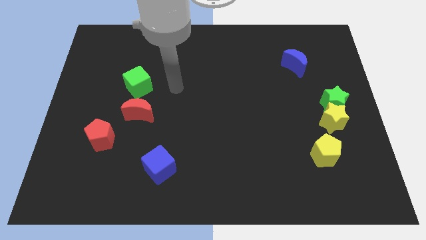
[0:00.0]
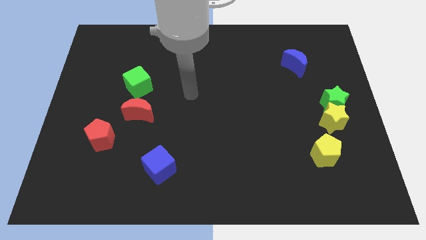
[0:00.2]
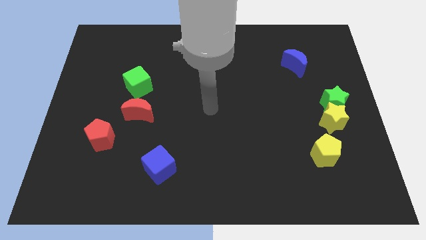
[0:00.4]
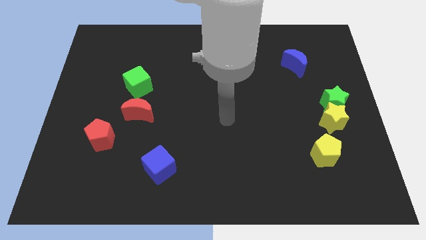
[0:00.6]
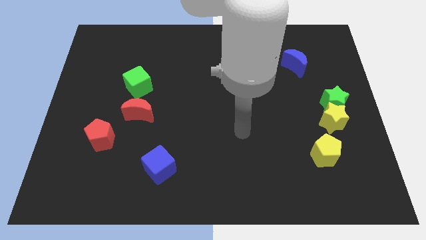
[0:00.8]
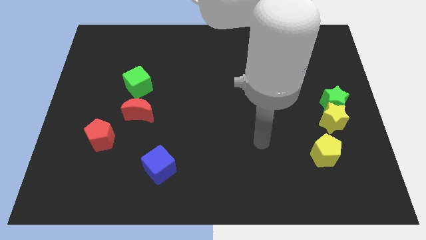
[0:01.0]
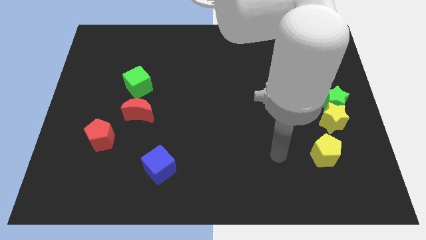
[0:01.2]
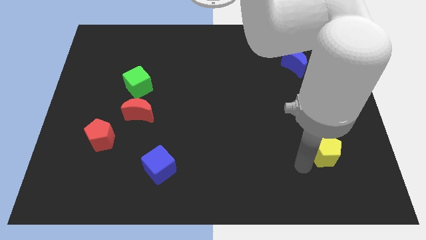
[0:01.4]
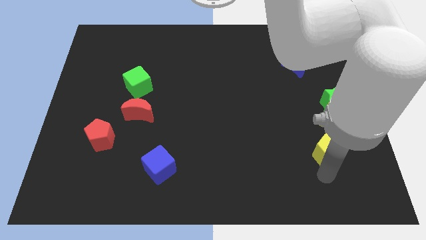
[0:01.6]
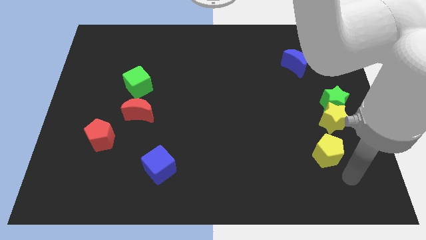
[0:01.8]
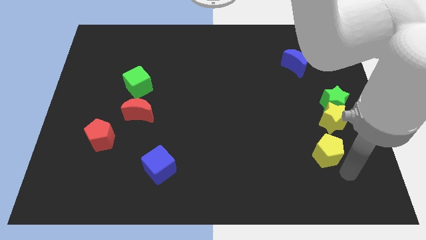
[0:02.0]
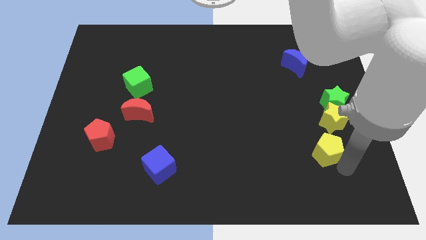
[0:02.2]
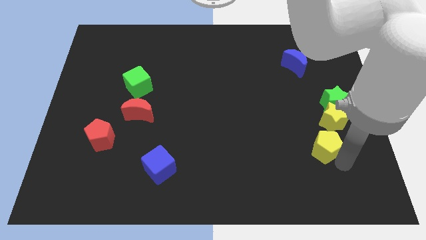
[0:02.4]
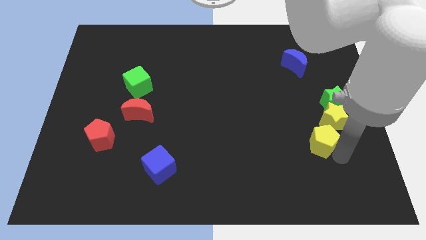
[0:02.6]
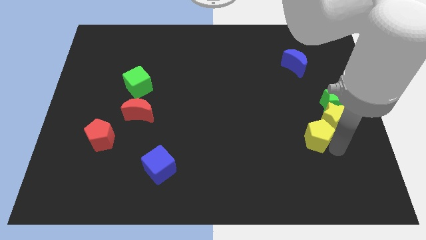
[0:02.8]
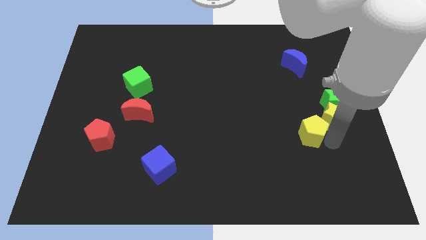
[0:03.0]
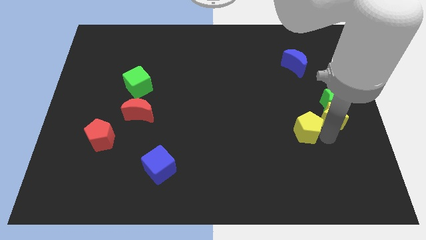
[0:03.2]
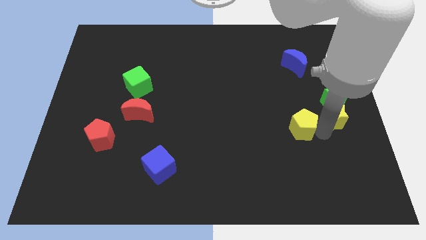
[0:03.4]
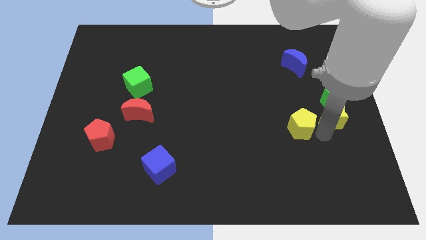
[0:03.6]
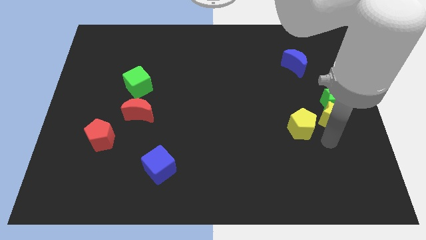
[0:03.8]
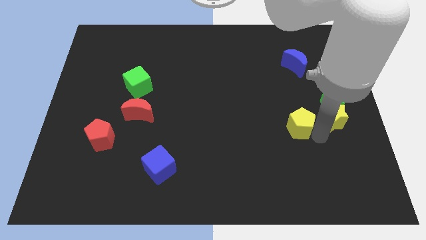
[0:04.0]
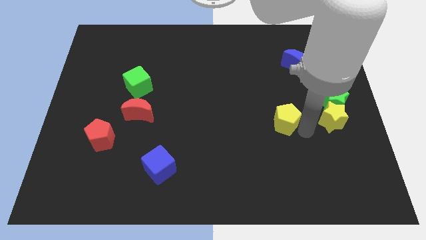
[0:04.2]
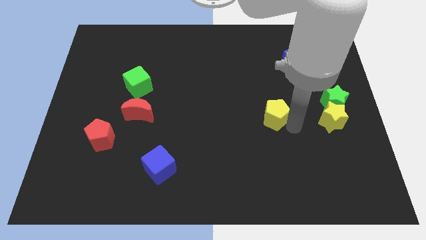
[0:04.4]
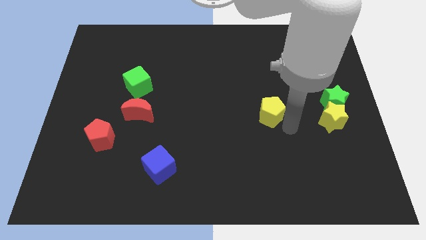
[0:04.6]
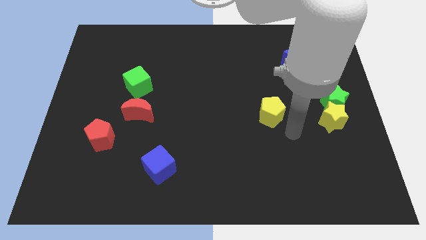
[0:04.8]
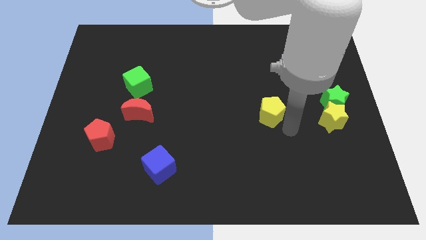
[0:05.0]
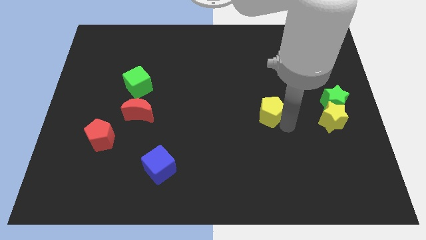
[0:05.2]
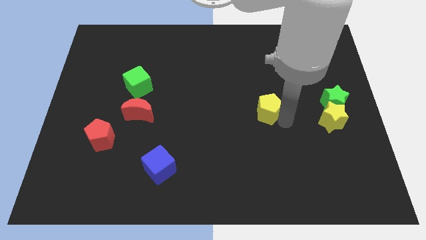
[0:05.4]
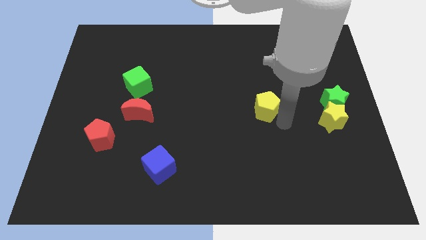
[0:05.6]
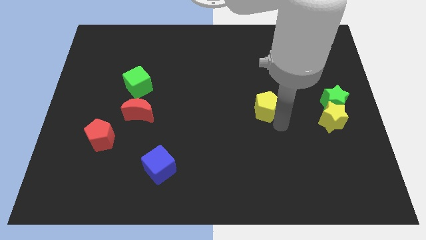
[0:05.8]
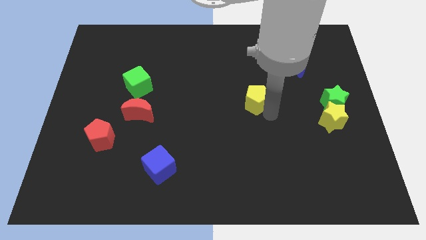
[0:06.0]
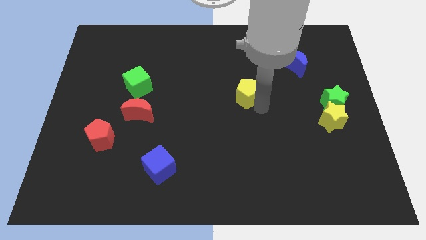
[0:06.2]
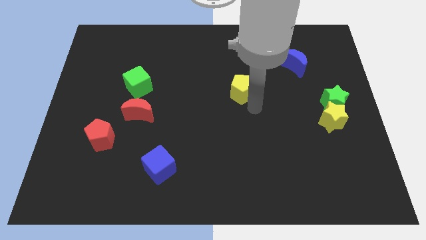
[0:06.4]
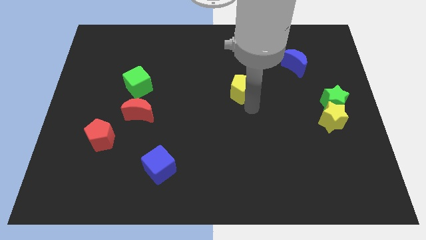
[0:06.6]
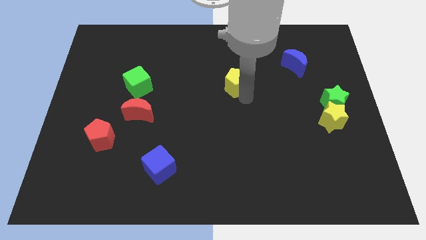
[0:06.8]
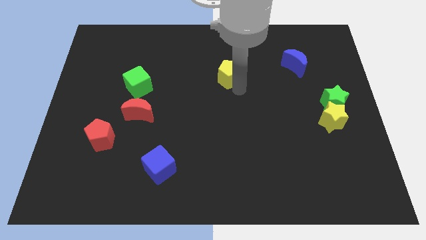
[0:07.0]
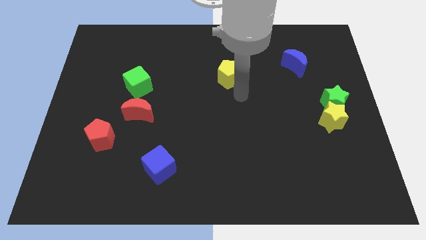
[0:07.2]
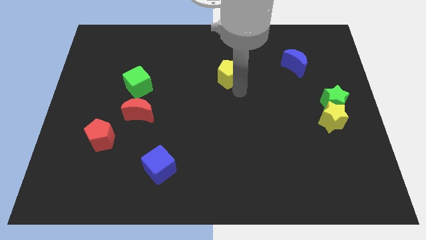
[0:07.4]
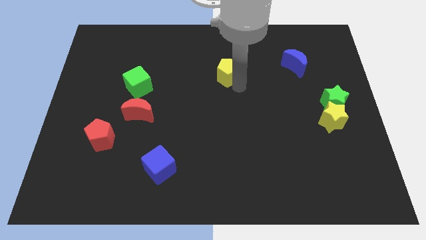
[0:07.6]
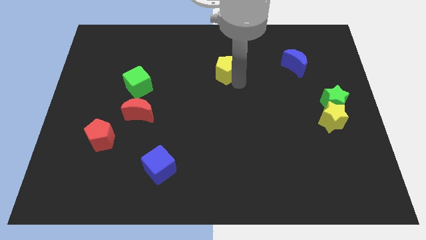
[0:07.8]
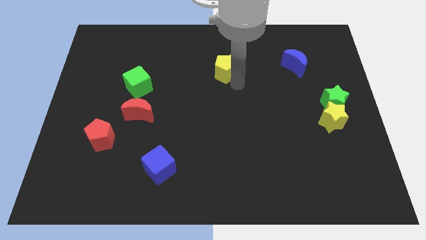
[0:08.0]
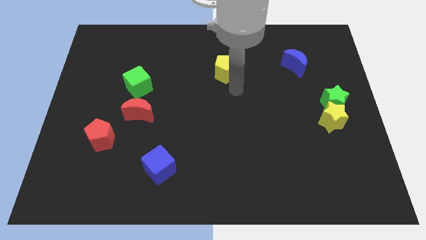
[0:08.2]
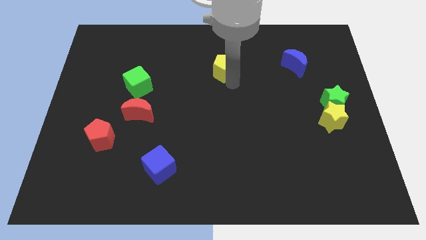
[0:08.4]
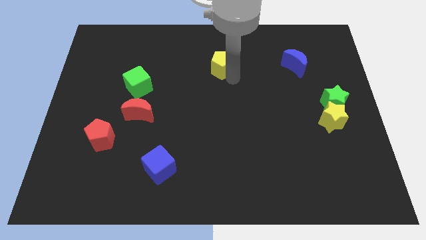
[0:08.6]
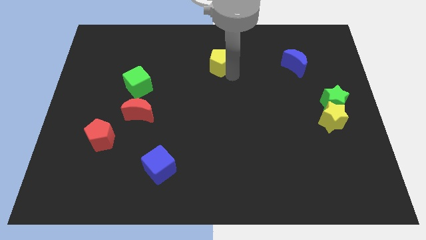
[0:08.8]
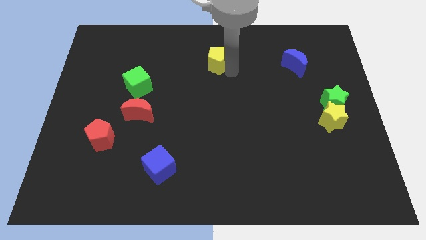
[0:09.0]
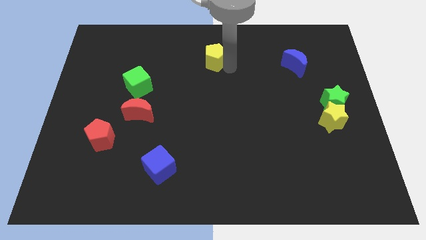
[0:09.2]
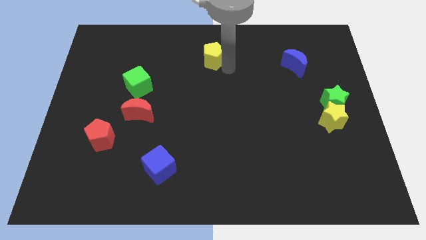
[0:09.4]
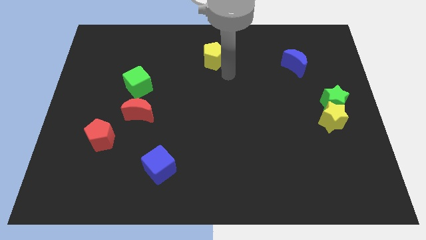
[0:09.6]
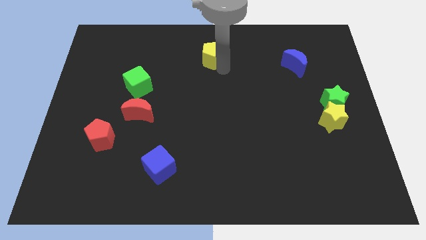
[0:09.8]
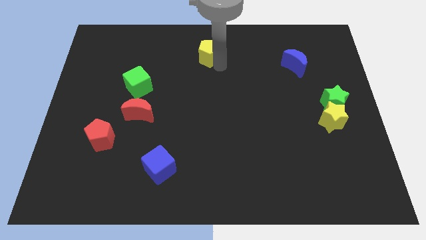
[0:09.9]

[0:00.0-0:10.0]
push the yellow pentagon to the top side

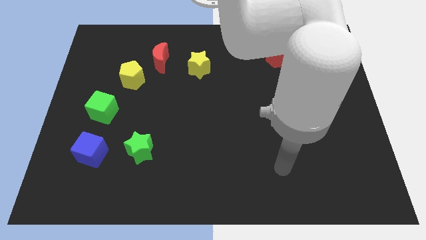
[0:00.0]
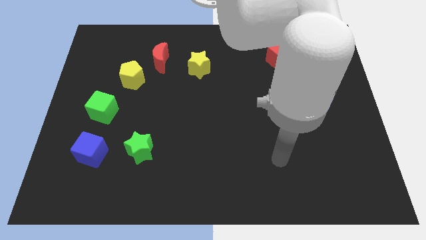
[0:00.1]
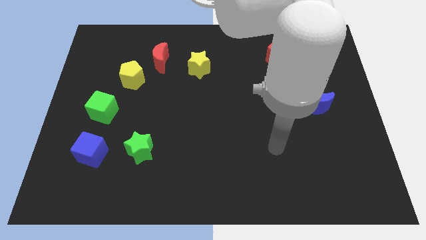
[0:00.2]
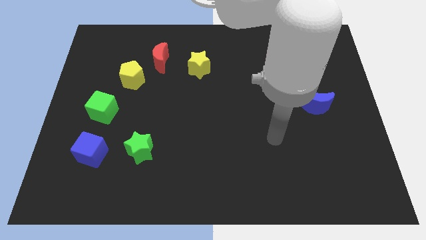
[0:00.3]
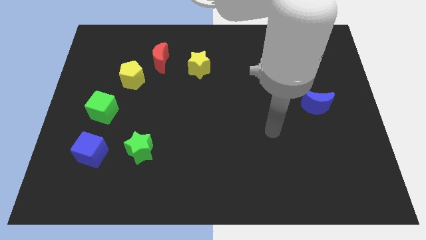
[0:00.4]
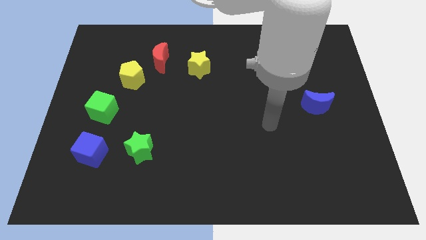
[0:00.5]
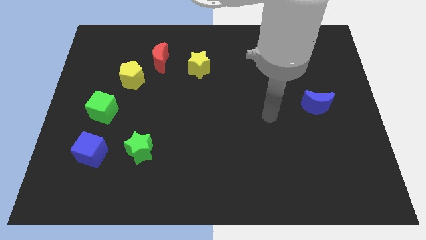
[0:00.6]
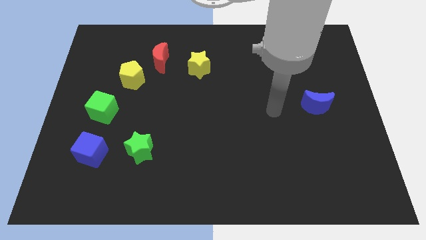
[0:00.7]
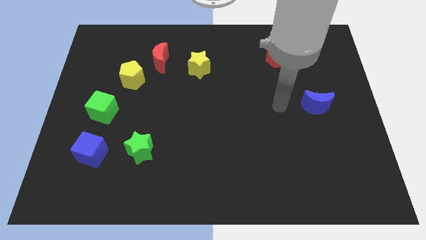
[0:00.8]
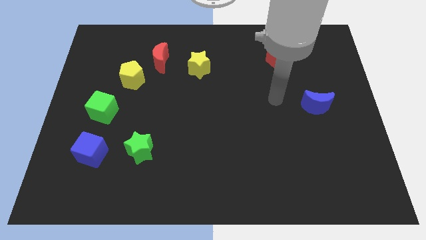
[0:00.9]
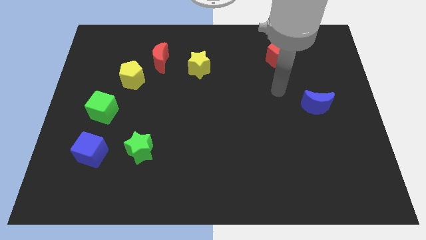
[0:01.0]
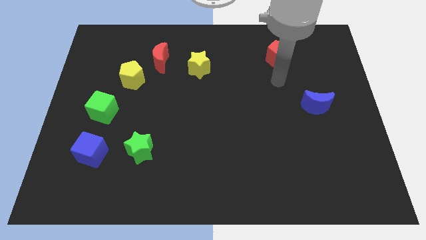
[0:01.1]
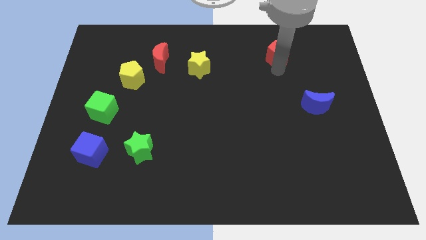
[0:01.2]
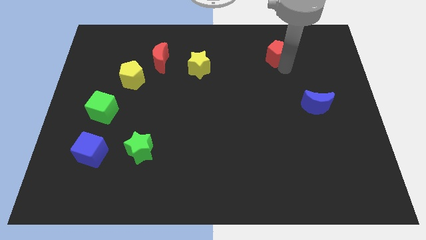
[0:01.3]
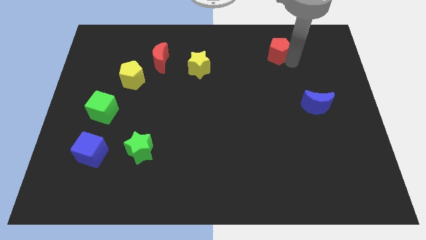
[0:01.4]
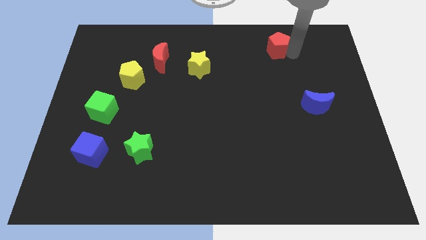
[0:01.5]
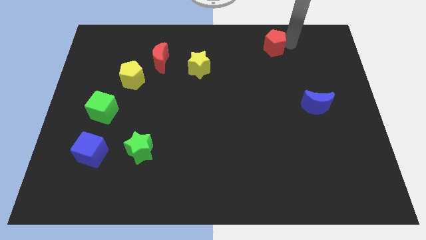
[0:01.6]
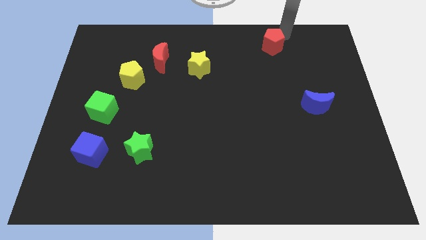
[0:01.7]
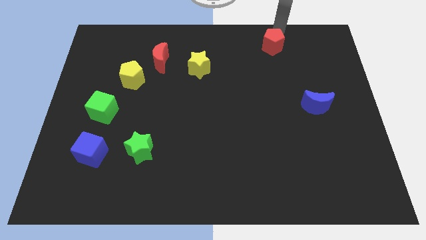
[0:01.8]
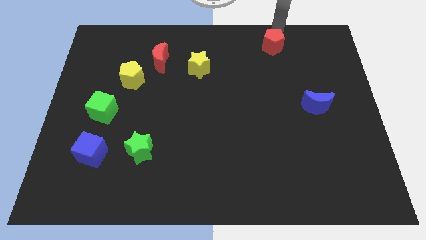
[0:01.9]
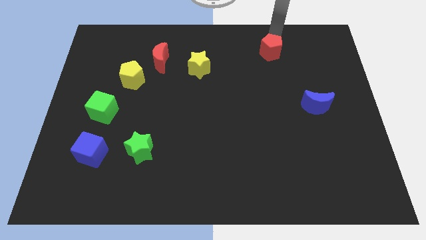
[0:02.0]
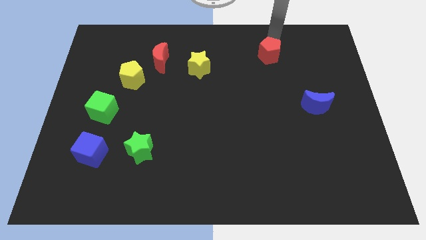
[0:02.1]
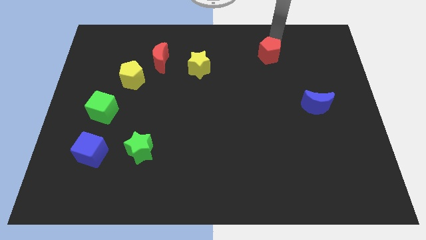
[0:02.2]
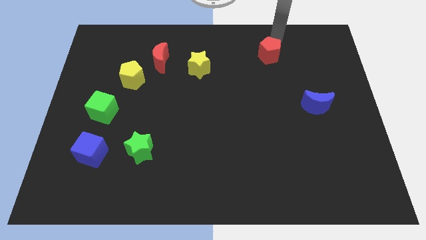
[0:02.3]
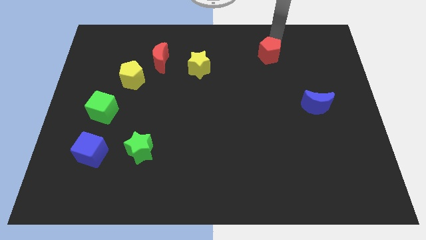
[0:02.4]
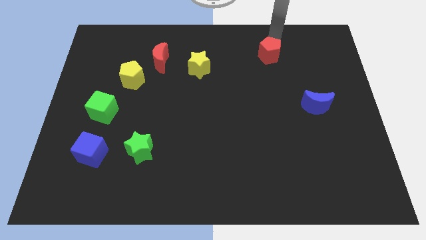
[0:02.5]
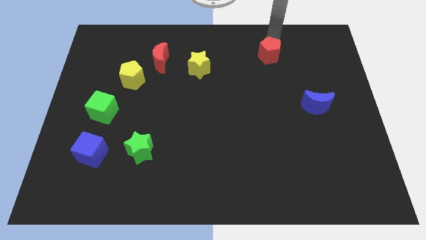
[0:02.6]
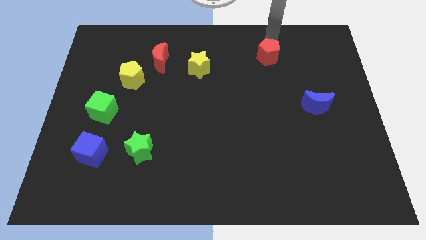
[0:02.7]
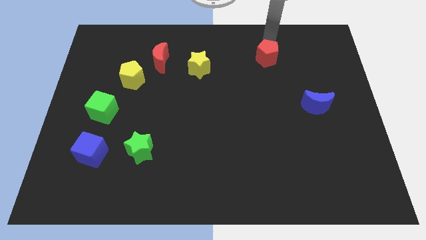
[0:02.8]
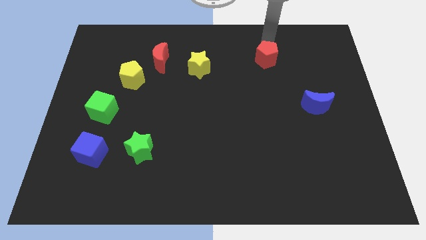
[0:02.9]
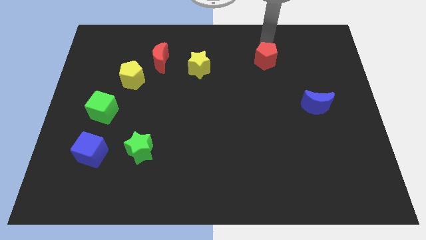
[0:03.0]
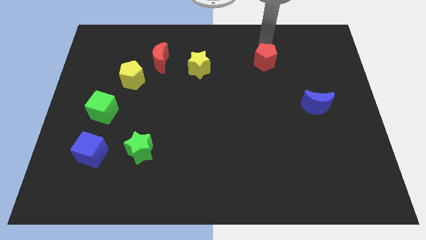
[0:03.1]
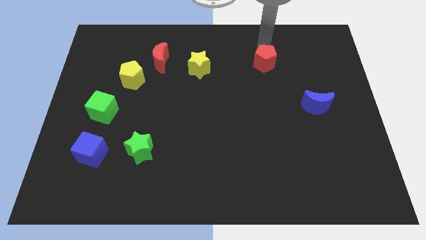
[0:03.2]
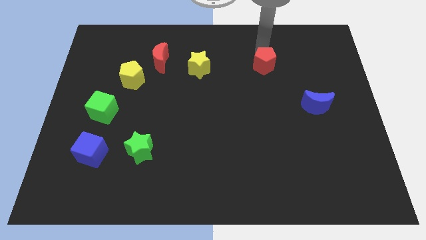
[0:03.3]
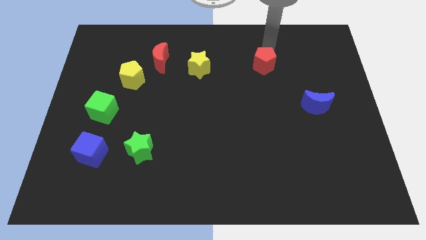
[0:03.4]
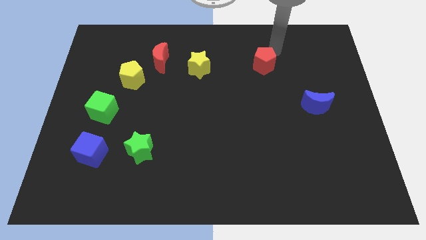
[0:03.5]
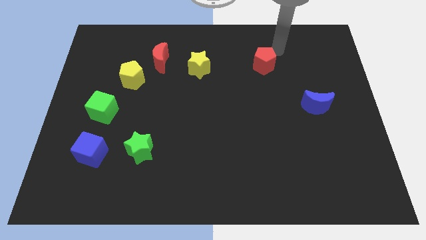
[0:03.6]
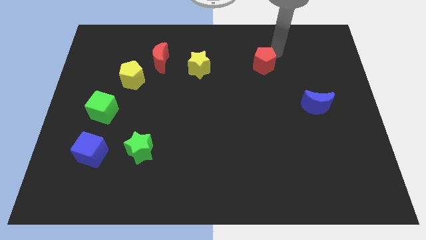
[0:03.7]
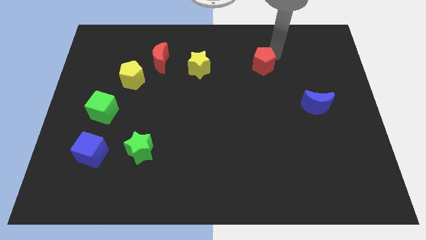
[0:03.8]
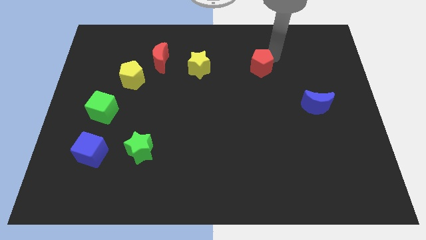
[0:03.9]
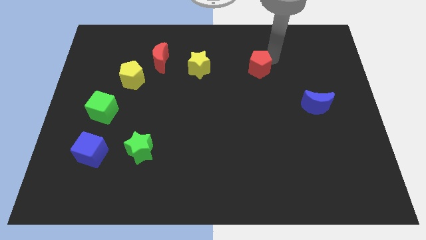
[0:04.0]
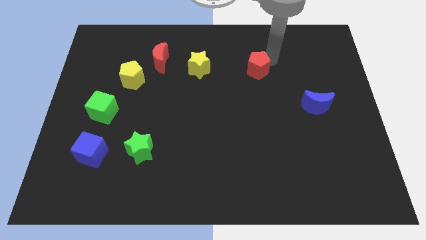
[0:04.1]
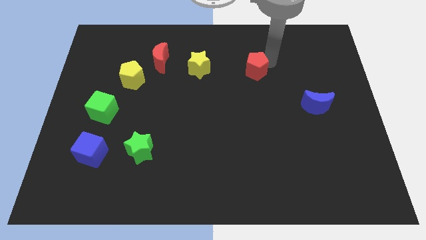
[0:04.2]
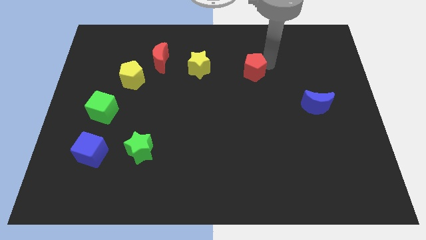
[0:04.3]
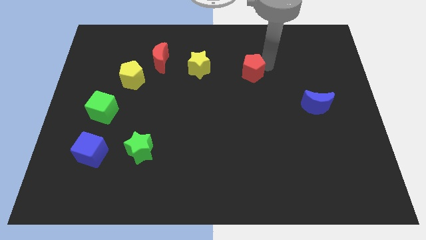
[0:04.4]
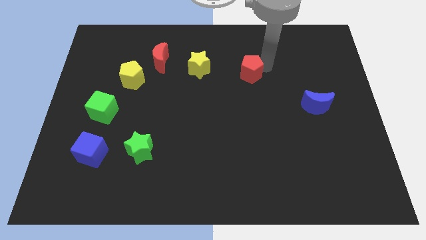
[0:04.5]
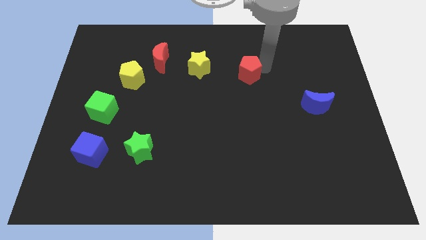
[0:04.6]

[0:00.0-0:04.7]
move the red pentagon to the middle
